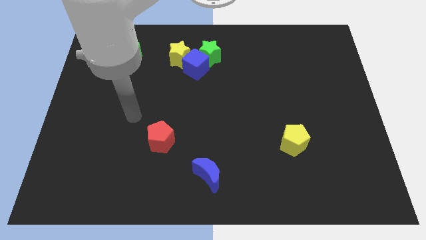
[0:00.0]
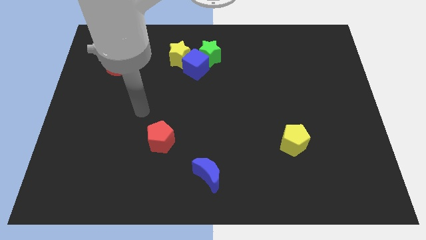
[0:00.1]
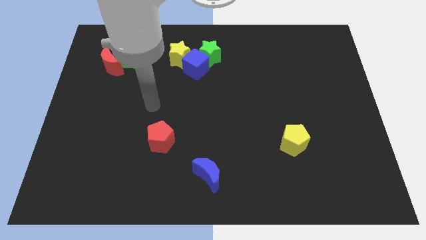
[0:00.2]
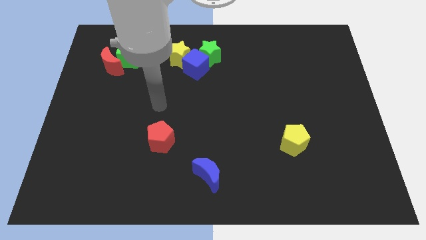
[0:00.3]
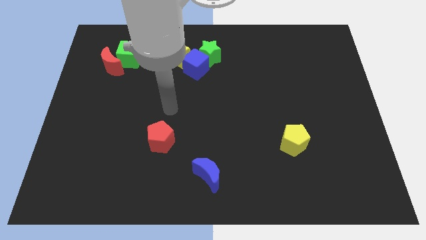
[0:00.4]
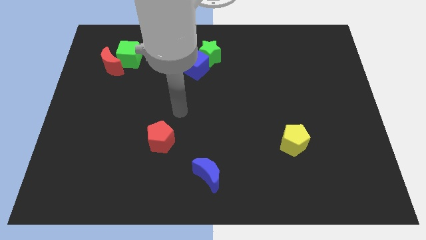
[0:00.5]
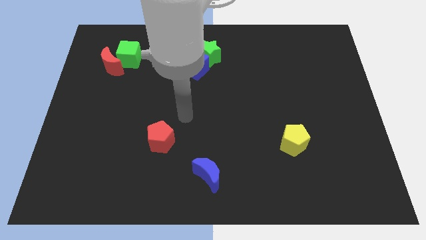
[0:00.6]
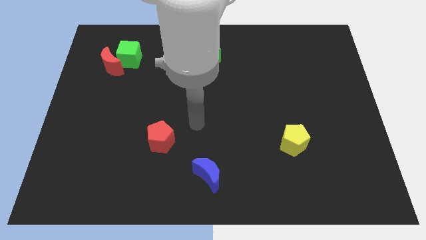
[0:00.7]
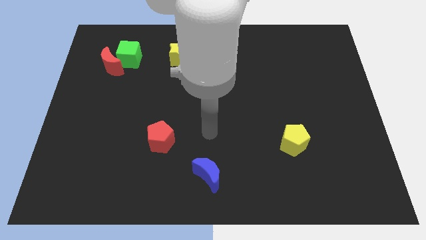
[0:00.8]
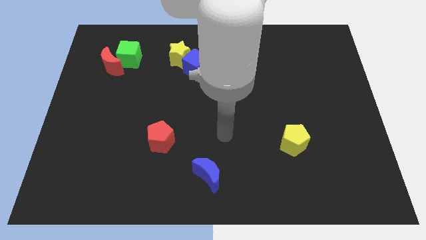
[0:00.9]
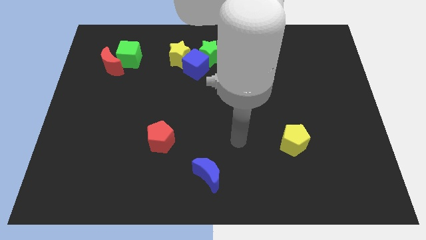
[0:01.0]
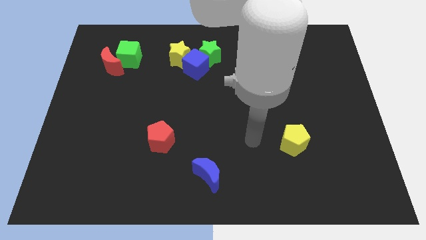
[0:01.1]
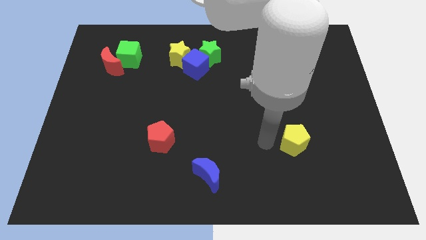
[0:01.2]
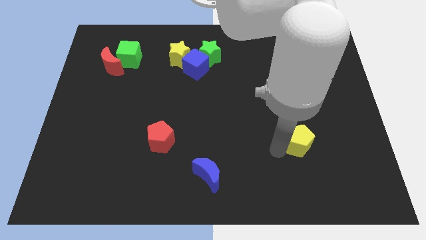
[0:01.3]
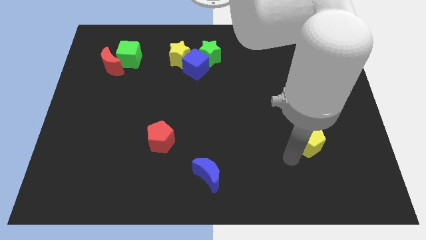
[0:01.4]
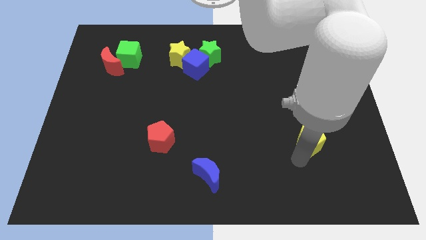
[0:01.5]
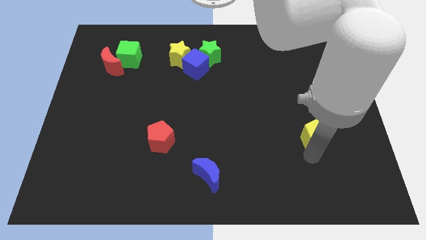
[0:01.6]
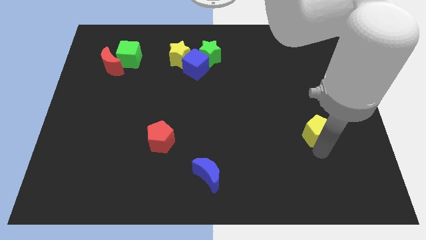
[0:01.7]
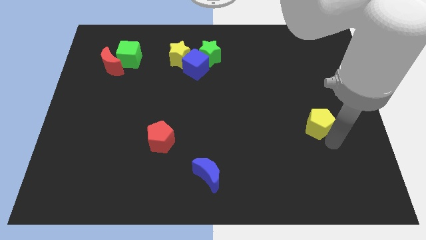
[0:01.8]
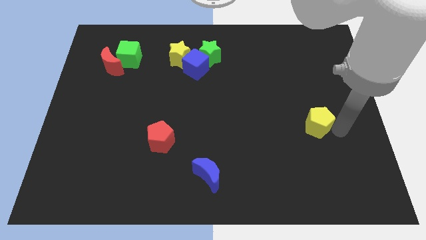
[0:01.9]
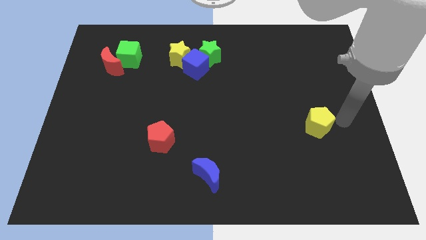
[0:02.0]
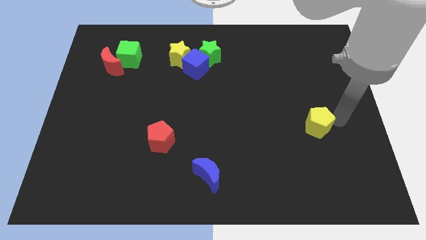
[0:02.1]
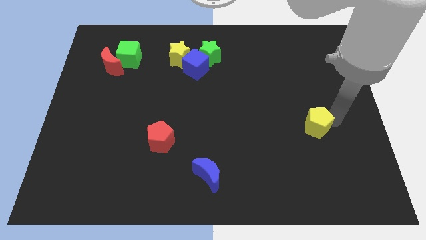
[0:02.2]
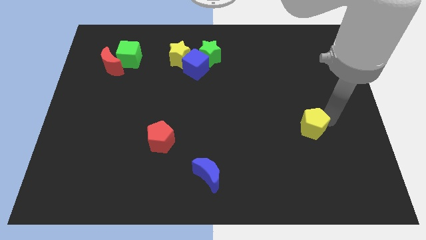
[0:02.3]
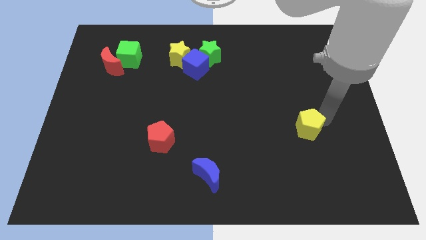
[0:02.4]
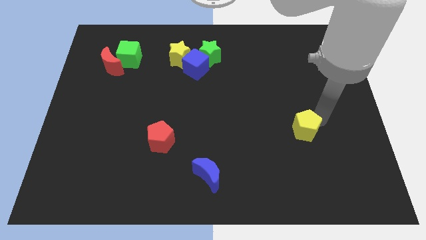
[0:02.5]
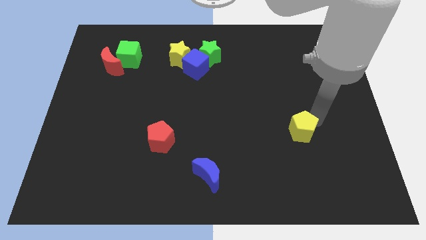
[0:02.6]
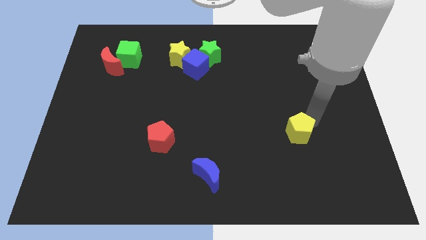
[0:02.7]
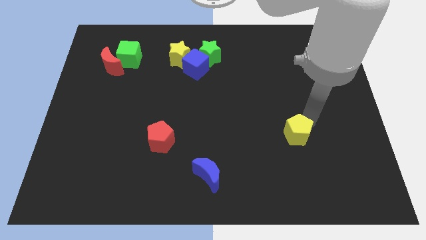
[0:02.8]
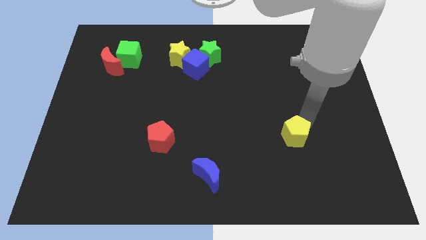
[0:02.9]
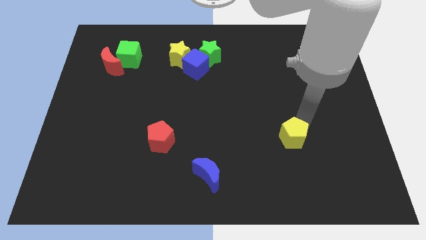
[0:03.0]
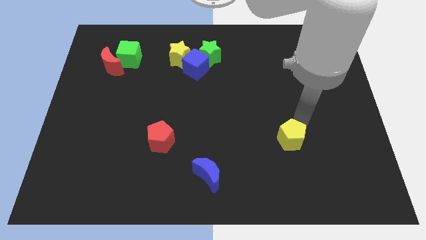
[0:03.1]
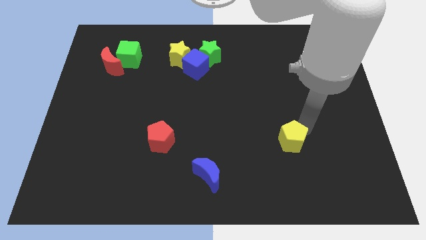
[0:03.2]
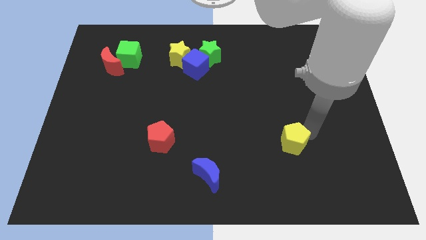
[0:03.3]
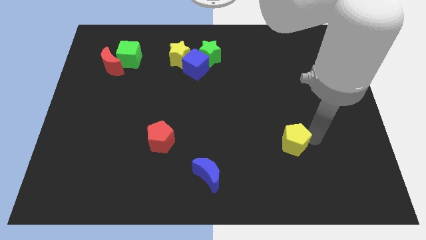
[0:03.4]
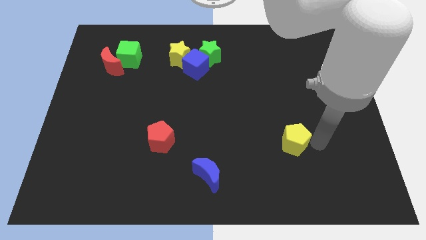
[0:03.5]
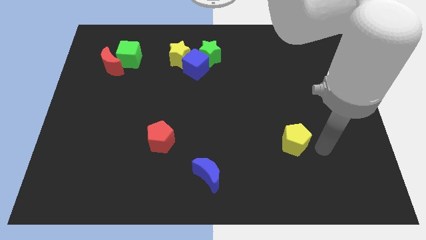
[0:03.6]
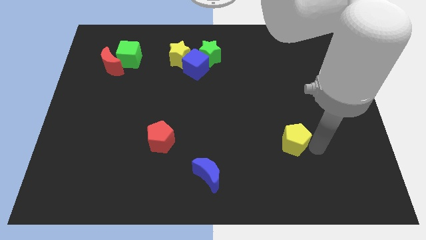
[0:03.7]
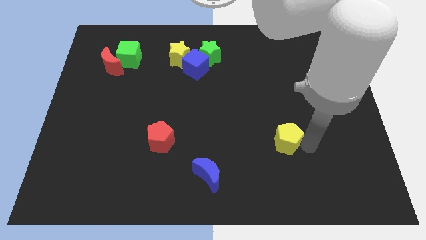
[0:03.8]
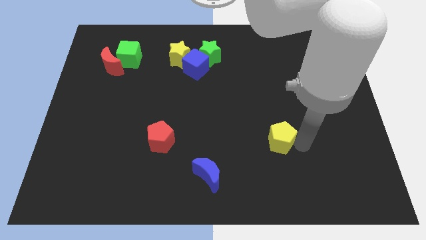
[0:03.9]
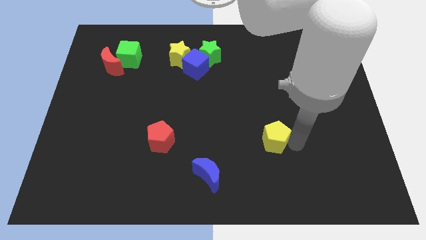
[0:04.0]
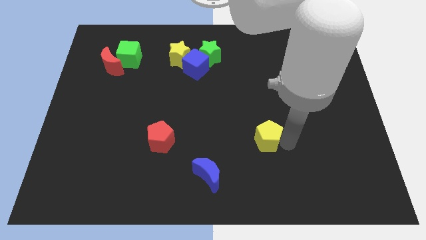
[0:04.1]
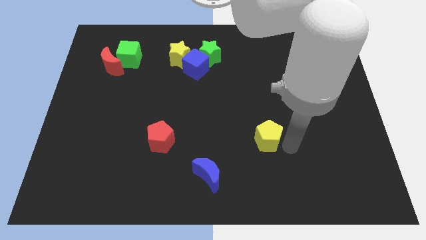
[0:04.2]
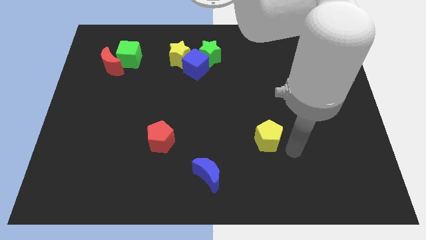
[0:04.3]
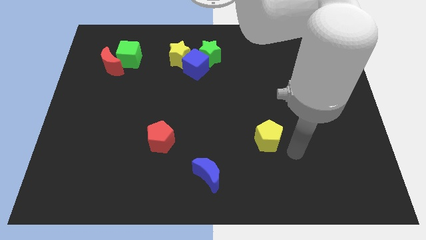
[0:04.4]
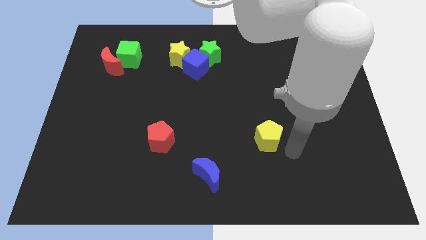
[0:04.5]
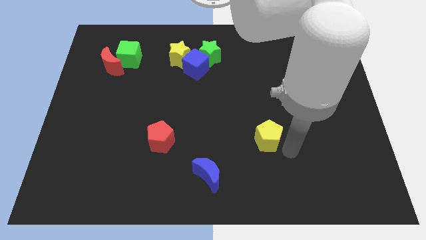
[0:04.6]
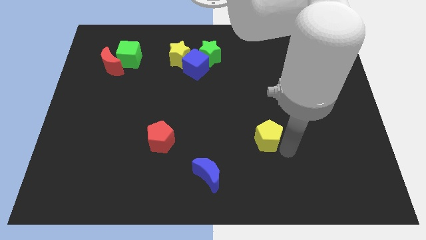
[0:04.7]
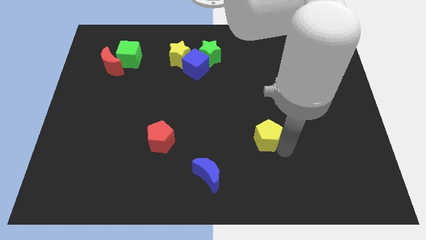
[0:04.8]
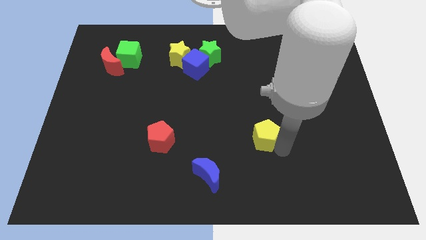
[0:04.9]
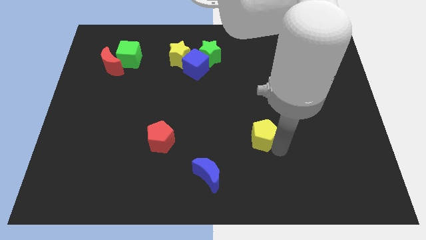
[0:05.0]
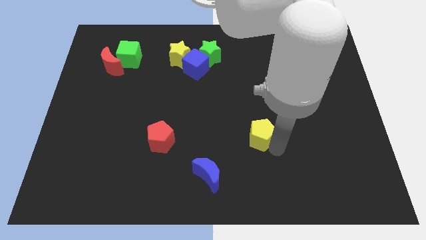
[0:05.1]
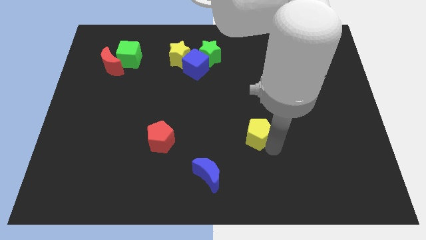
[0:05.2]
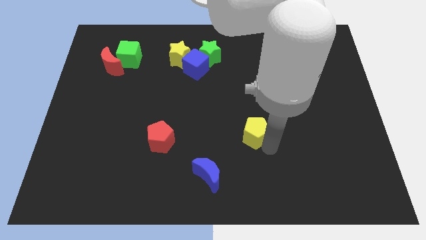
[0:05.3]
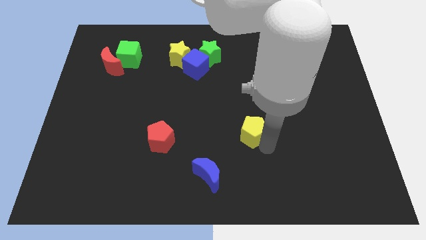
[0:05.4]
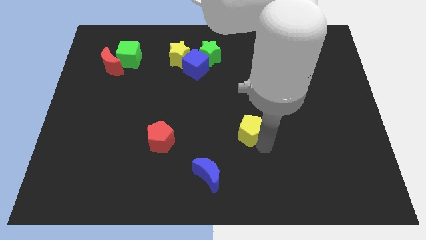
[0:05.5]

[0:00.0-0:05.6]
move the yellow pentagon to the center

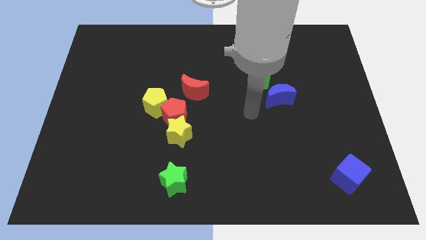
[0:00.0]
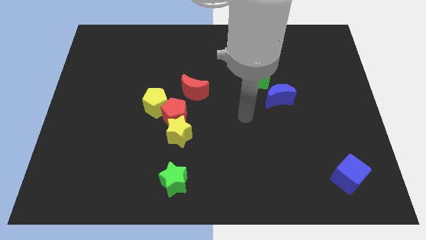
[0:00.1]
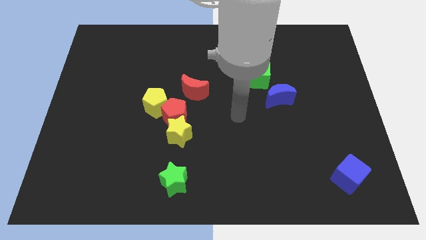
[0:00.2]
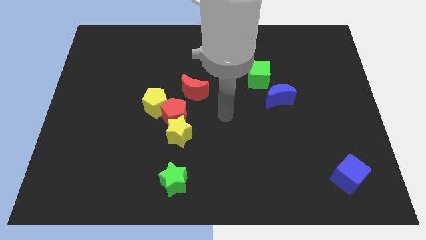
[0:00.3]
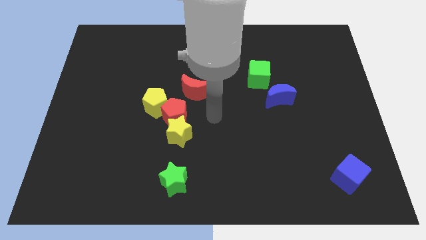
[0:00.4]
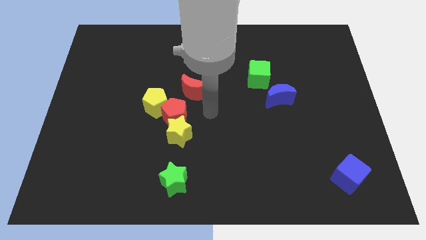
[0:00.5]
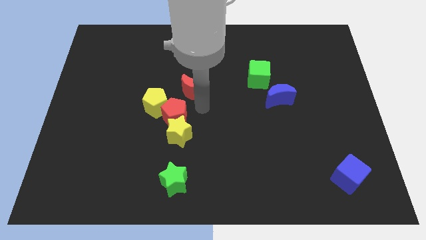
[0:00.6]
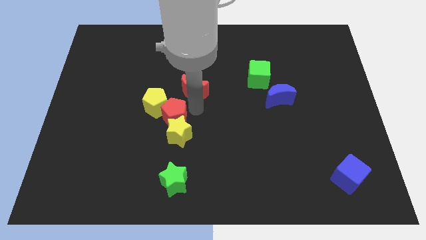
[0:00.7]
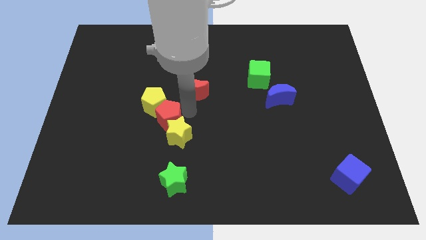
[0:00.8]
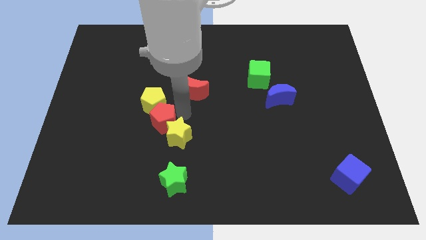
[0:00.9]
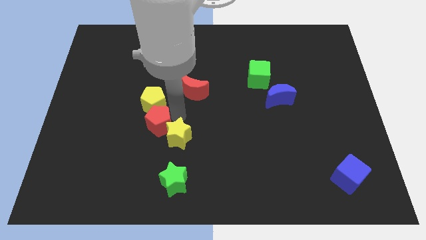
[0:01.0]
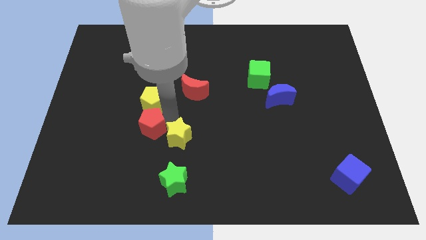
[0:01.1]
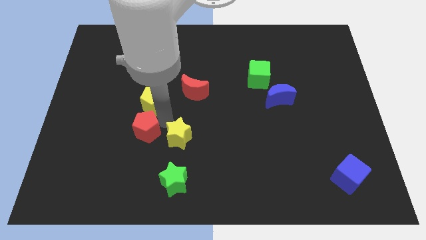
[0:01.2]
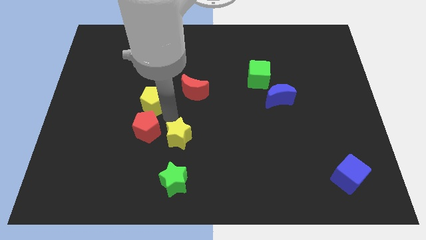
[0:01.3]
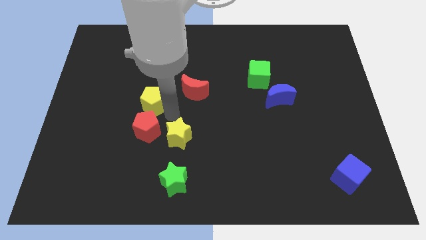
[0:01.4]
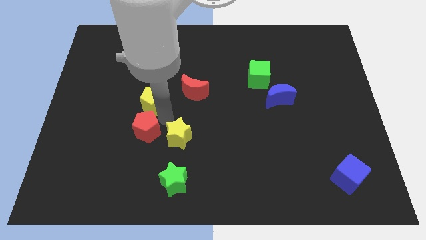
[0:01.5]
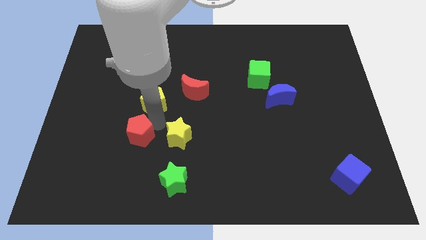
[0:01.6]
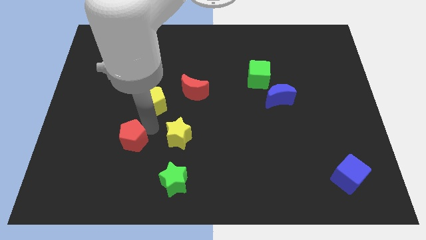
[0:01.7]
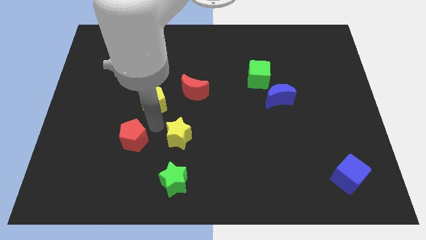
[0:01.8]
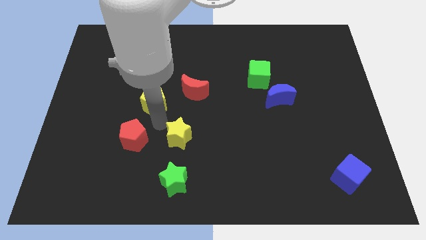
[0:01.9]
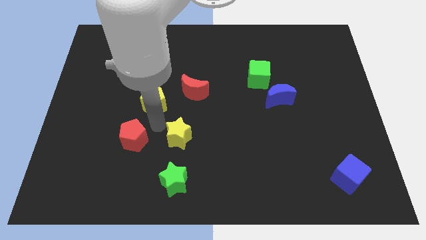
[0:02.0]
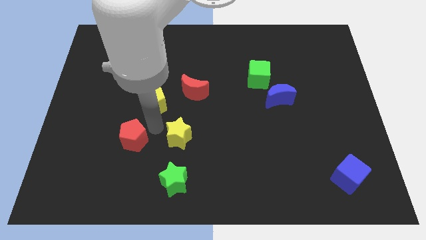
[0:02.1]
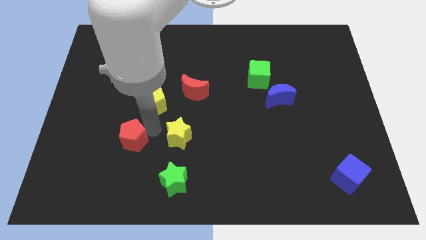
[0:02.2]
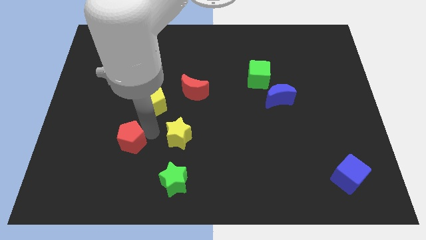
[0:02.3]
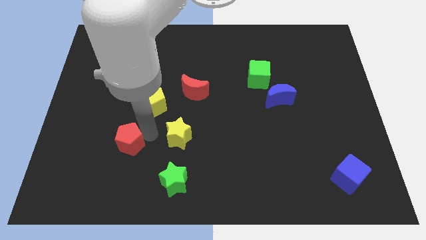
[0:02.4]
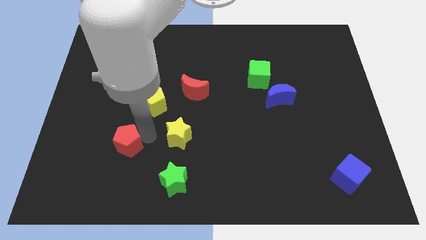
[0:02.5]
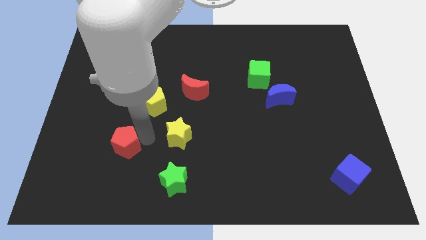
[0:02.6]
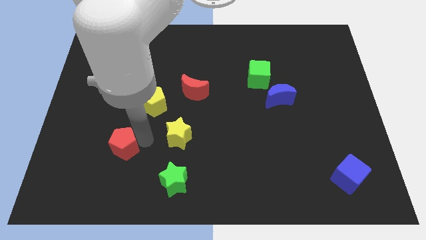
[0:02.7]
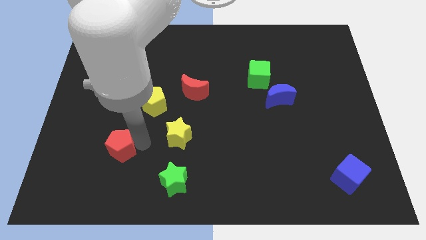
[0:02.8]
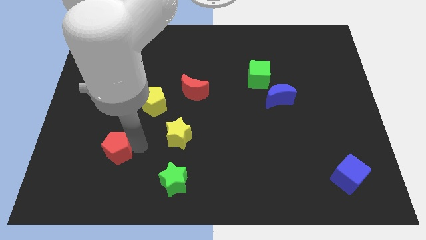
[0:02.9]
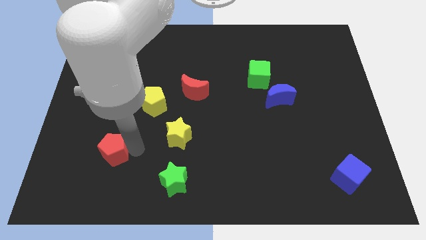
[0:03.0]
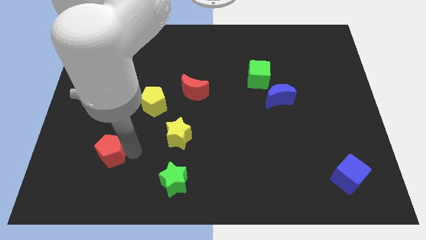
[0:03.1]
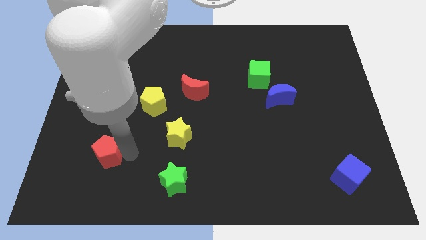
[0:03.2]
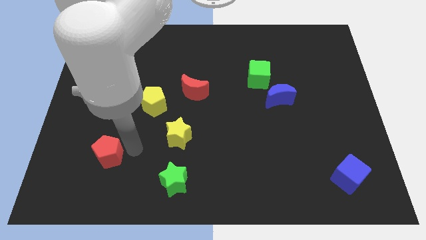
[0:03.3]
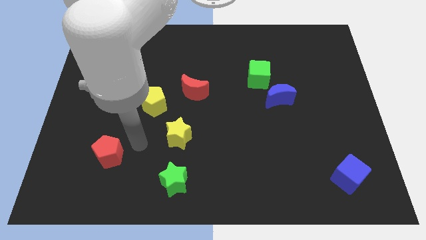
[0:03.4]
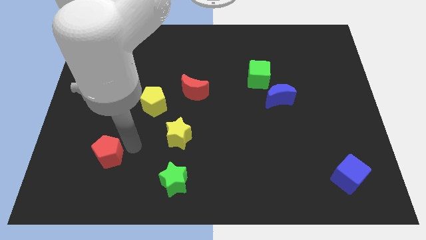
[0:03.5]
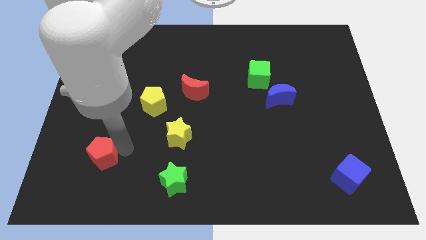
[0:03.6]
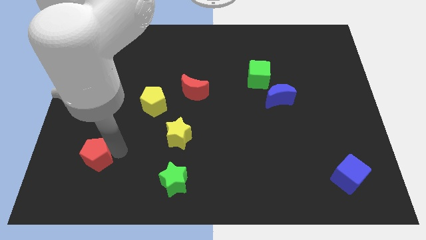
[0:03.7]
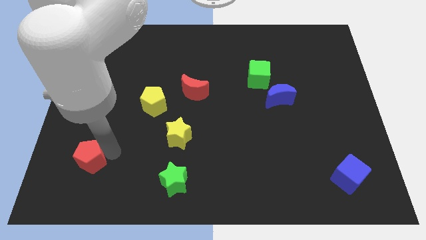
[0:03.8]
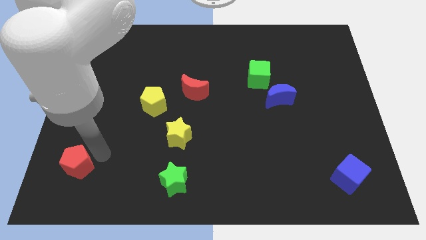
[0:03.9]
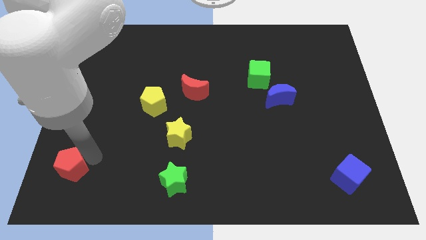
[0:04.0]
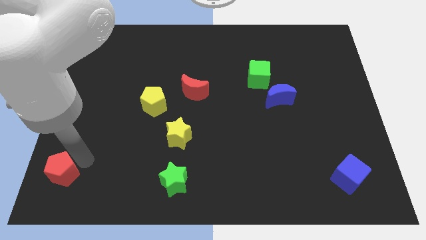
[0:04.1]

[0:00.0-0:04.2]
push the red pentagon to the lower left corner
